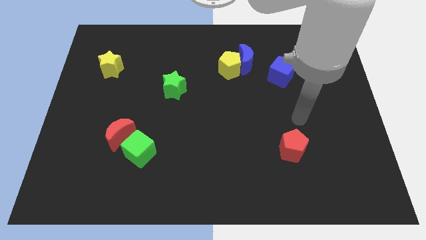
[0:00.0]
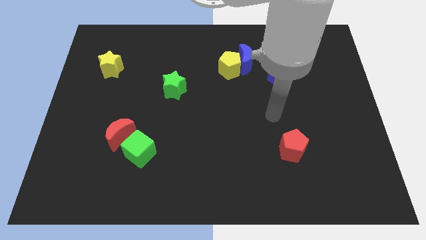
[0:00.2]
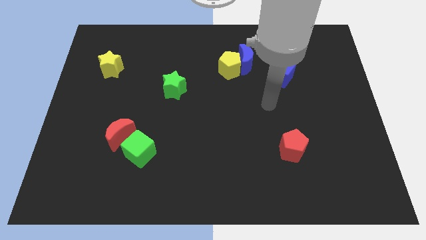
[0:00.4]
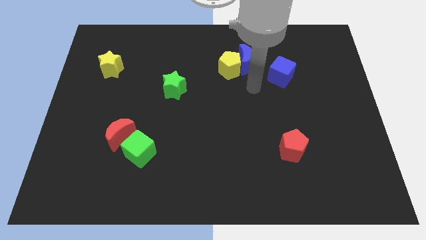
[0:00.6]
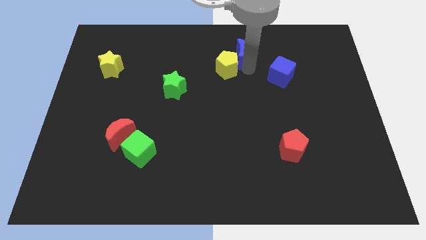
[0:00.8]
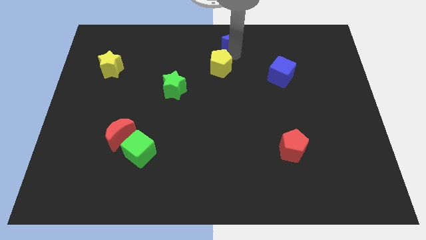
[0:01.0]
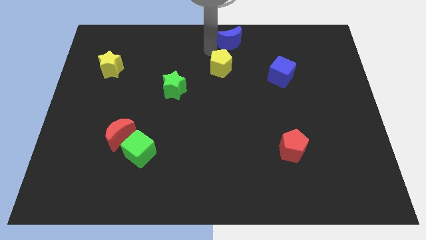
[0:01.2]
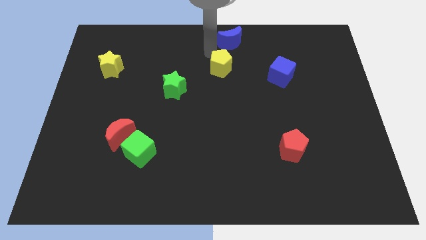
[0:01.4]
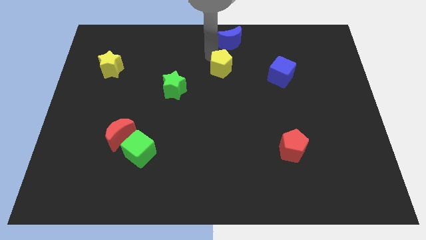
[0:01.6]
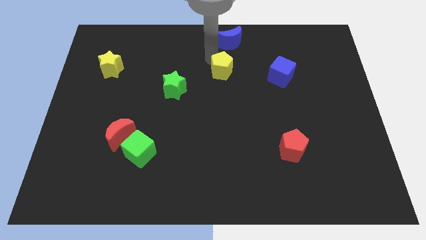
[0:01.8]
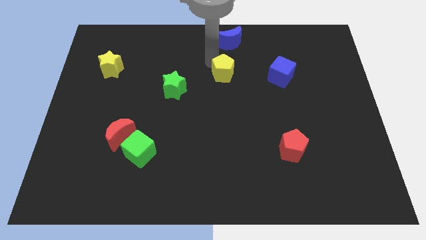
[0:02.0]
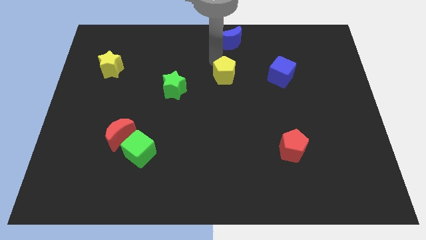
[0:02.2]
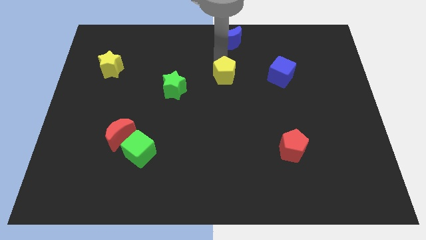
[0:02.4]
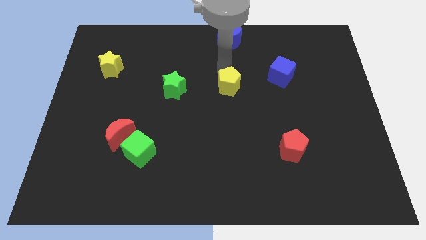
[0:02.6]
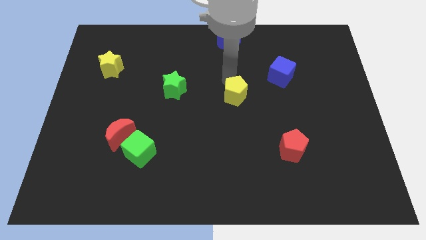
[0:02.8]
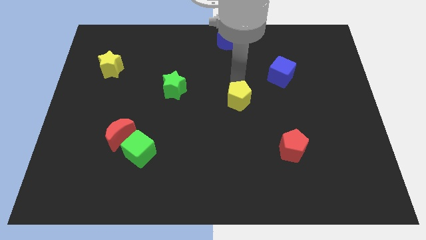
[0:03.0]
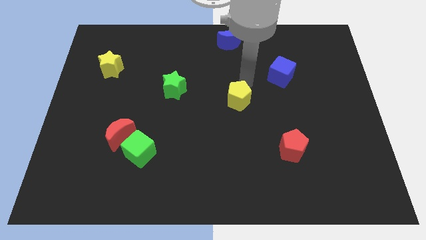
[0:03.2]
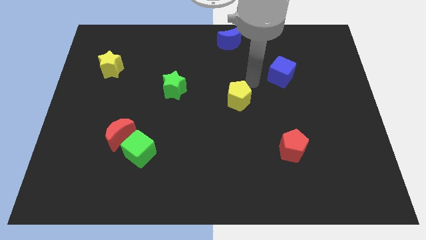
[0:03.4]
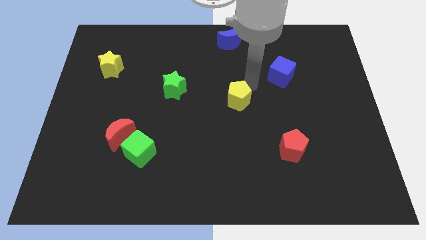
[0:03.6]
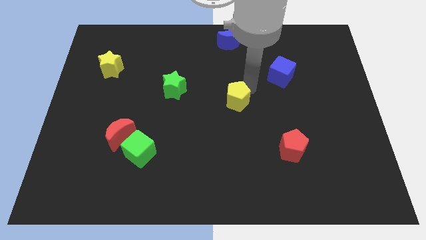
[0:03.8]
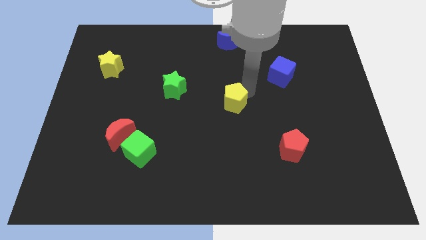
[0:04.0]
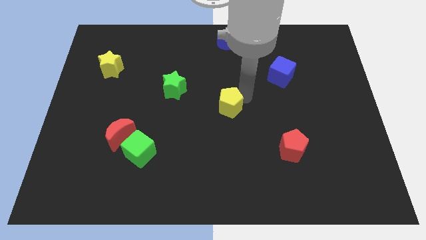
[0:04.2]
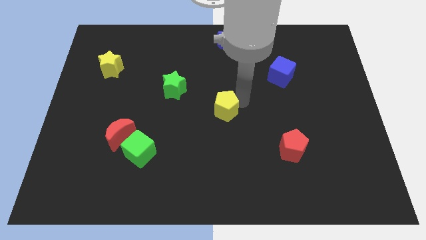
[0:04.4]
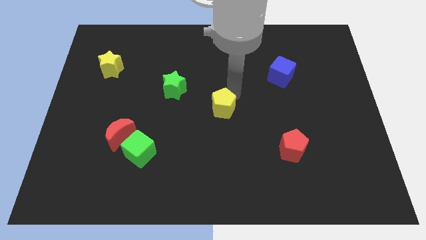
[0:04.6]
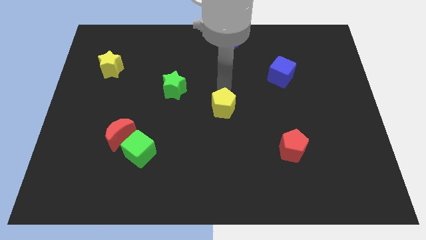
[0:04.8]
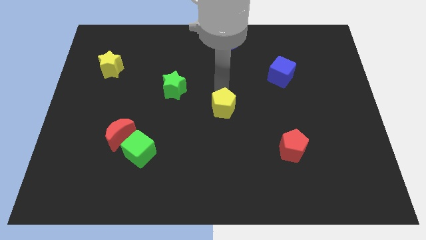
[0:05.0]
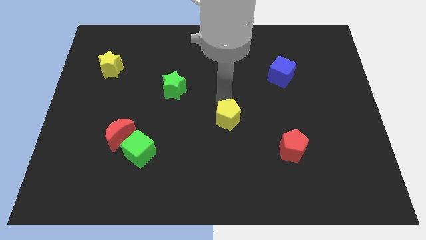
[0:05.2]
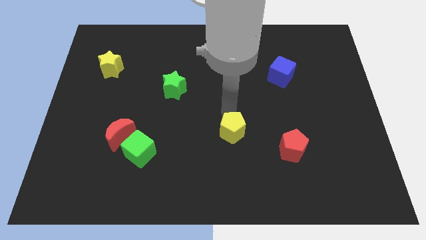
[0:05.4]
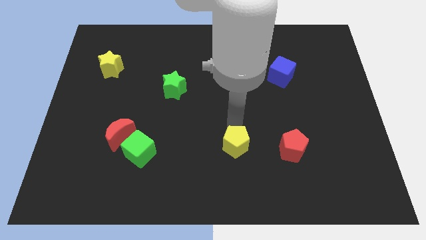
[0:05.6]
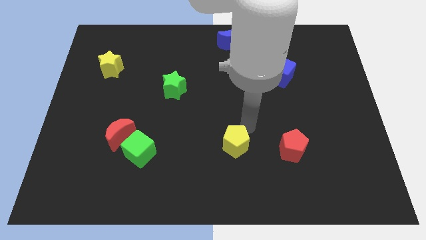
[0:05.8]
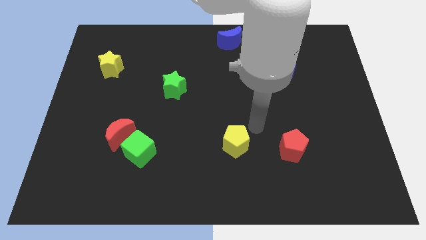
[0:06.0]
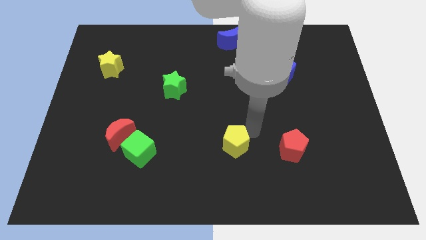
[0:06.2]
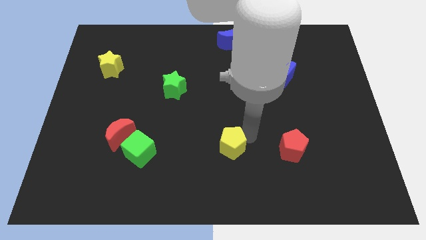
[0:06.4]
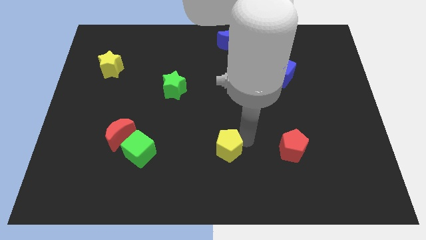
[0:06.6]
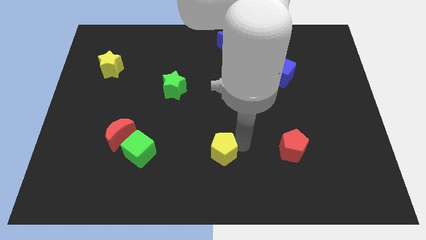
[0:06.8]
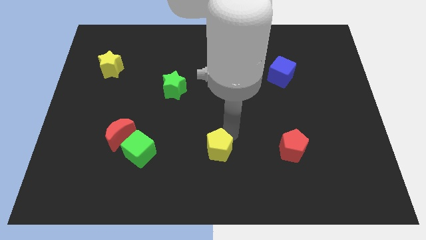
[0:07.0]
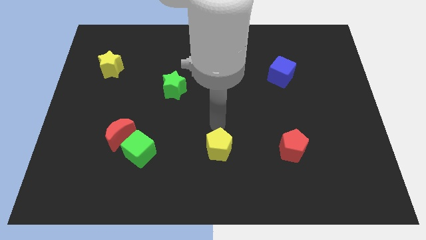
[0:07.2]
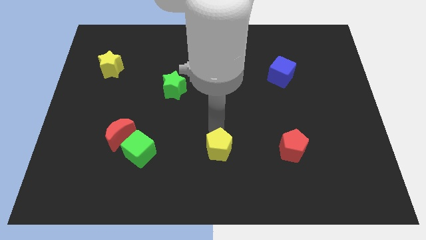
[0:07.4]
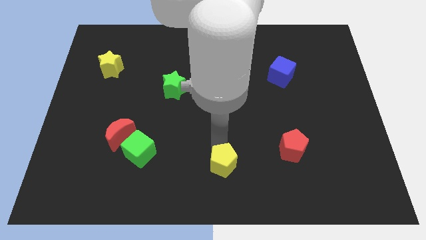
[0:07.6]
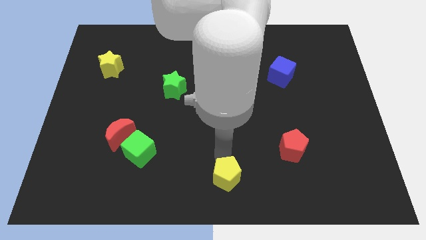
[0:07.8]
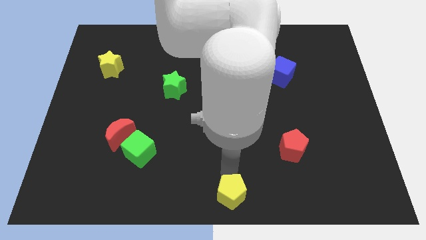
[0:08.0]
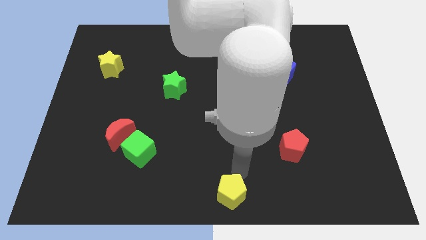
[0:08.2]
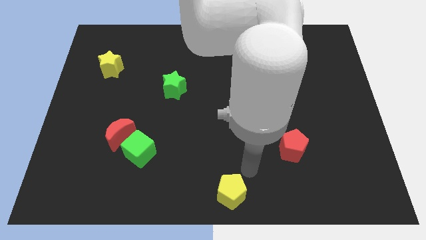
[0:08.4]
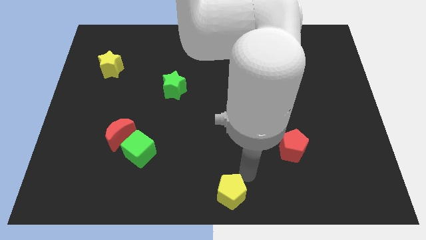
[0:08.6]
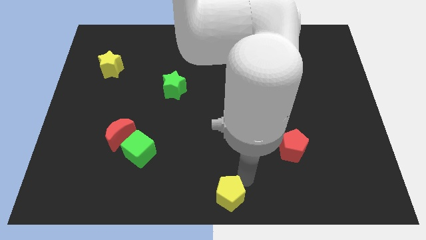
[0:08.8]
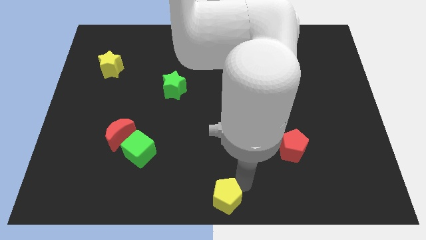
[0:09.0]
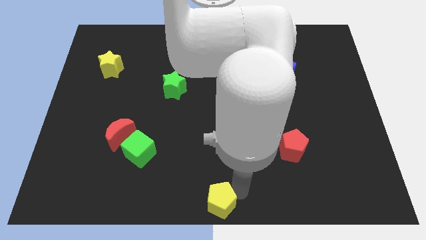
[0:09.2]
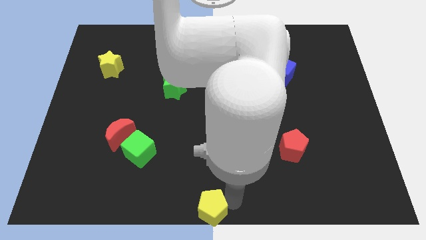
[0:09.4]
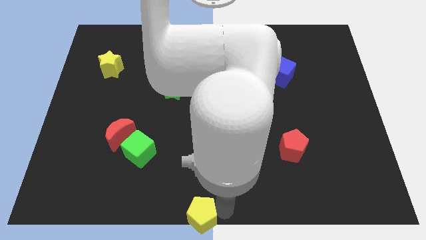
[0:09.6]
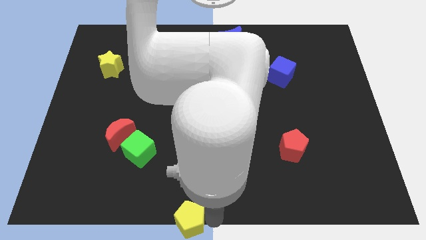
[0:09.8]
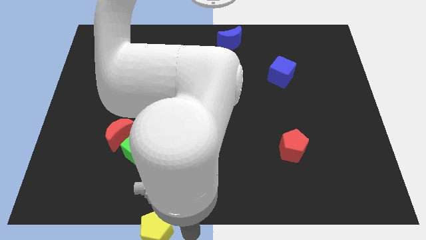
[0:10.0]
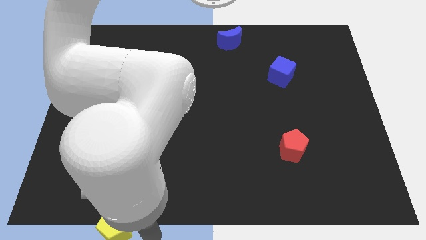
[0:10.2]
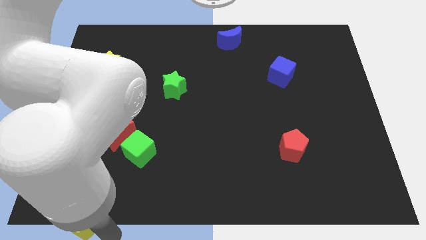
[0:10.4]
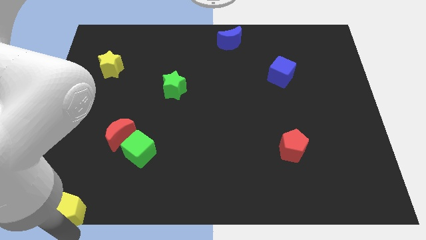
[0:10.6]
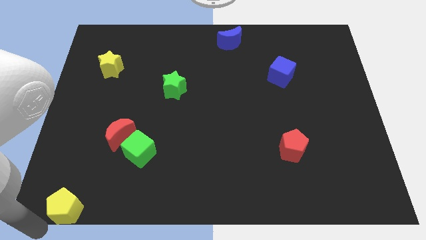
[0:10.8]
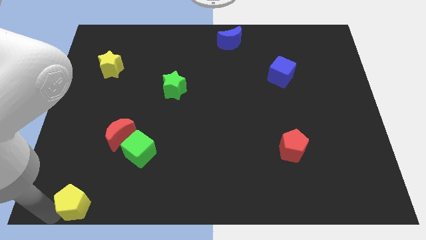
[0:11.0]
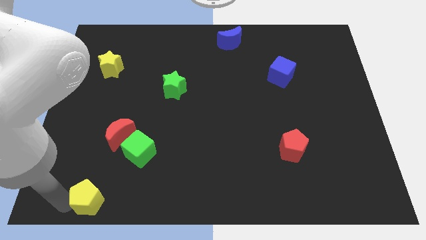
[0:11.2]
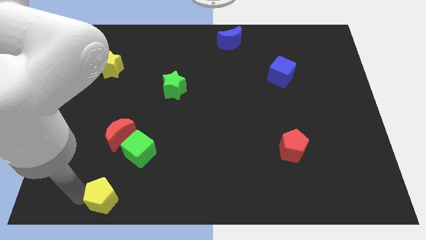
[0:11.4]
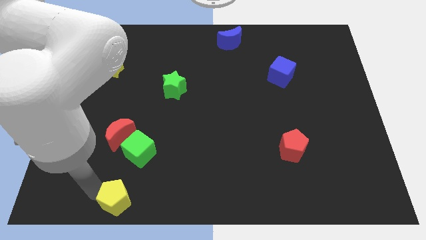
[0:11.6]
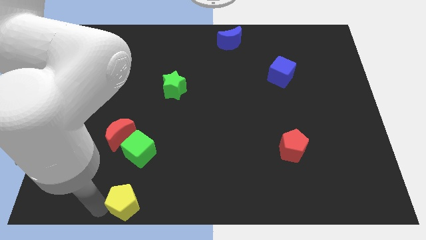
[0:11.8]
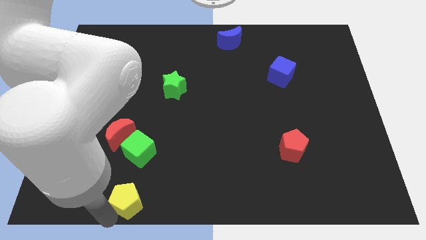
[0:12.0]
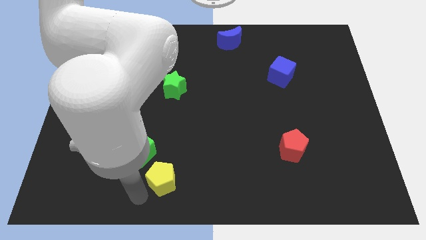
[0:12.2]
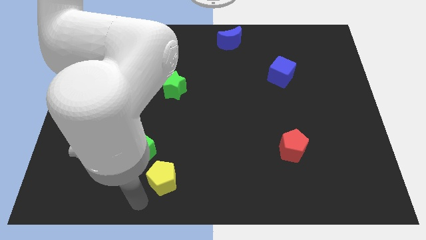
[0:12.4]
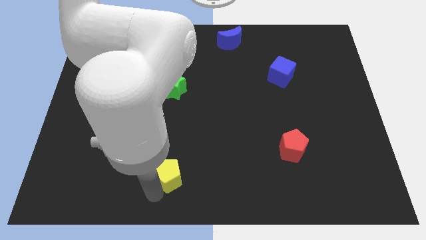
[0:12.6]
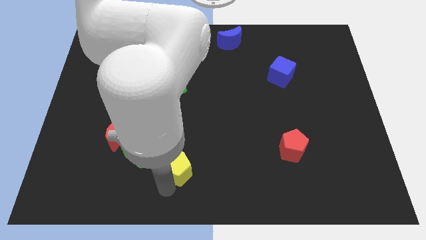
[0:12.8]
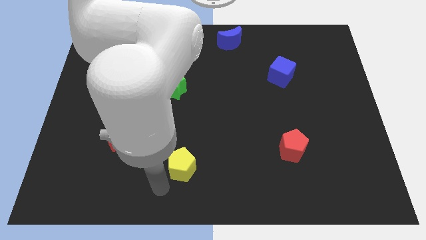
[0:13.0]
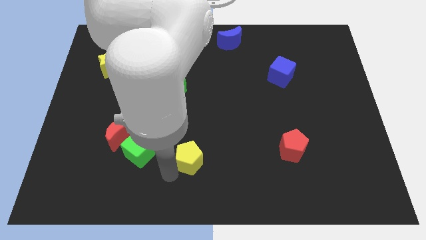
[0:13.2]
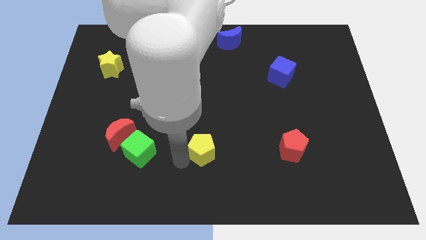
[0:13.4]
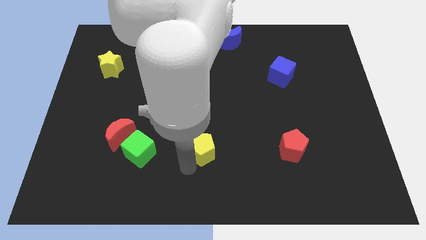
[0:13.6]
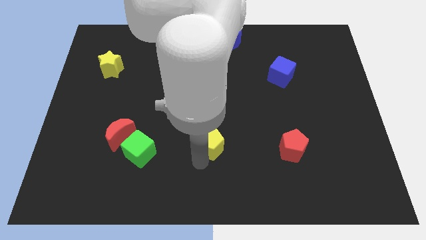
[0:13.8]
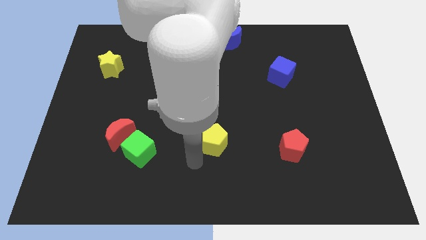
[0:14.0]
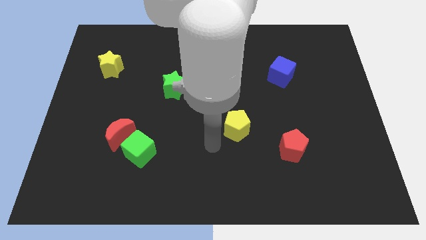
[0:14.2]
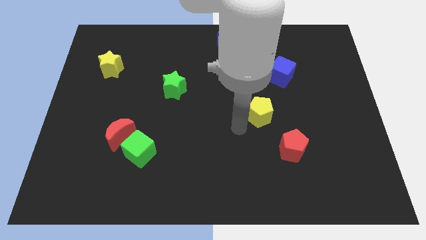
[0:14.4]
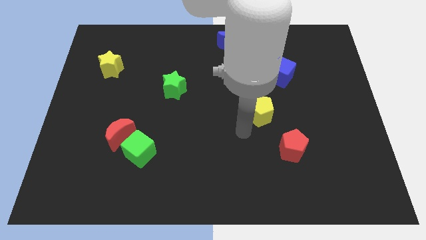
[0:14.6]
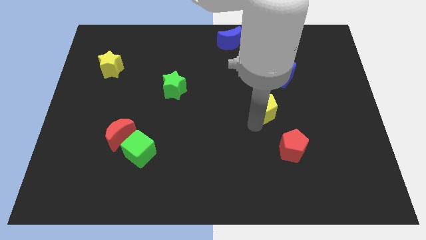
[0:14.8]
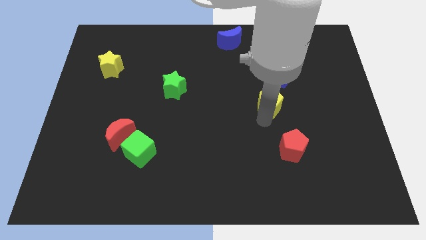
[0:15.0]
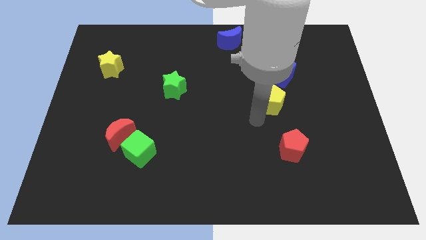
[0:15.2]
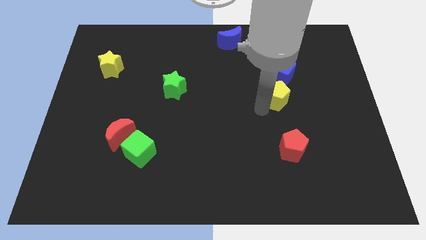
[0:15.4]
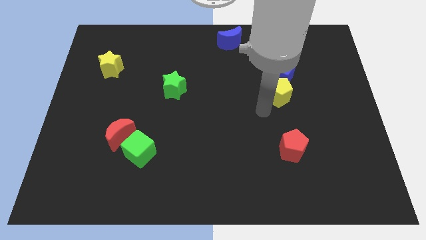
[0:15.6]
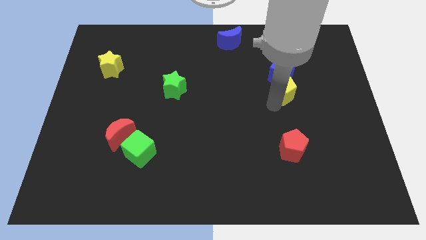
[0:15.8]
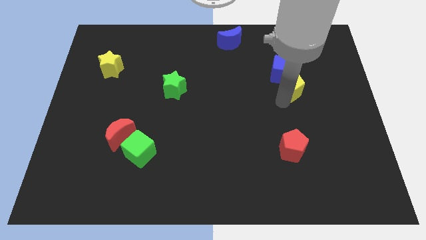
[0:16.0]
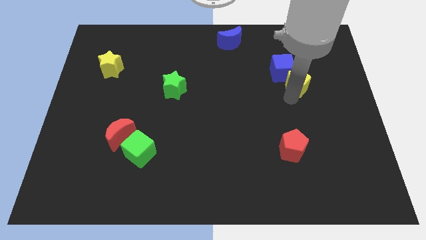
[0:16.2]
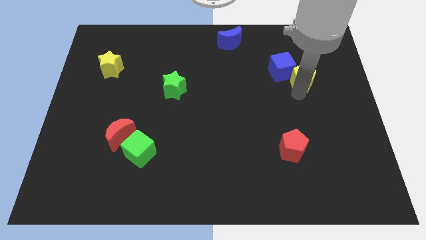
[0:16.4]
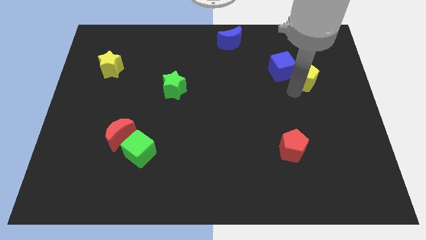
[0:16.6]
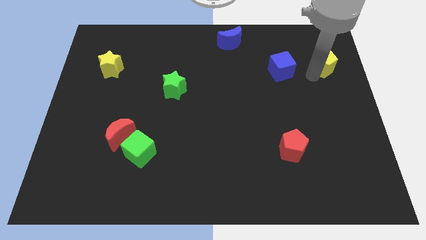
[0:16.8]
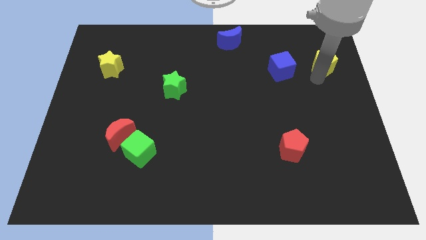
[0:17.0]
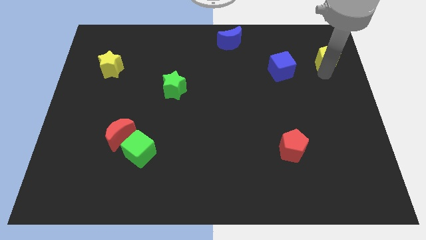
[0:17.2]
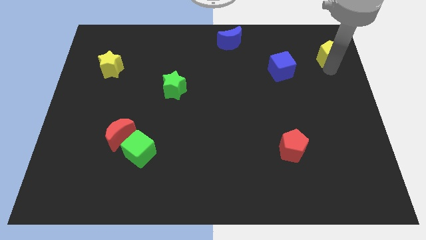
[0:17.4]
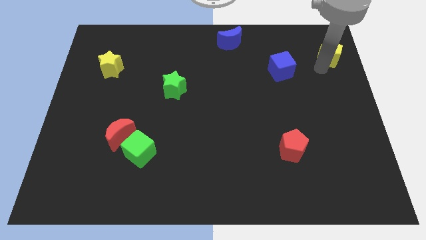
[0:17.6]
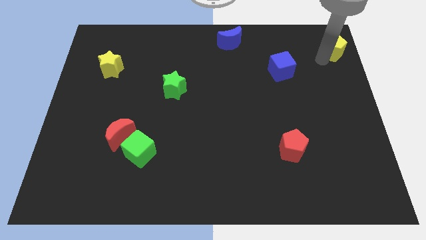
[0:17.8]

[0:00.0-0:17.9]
slide the yellow pentagon to the upper right corner
